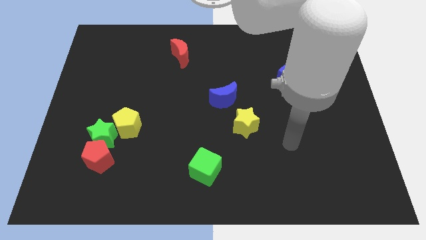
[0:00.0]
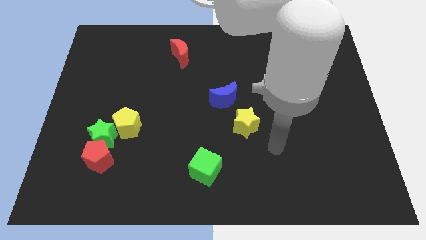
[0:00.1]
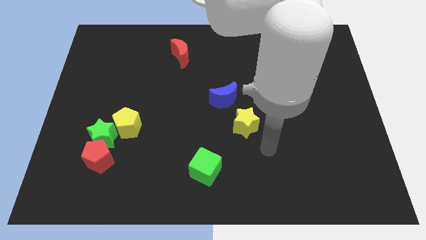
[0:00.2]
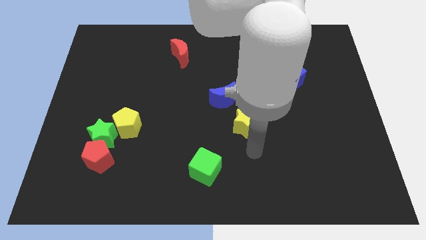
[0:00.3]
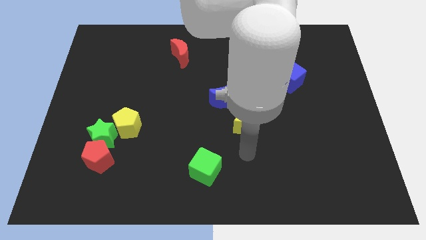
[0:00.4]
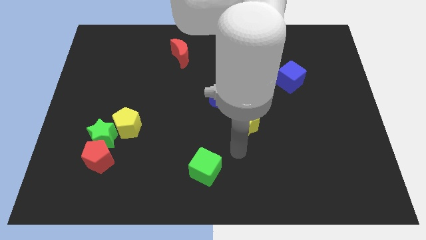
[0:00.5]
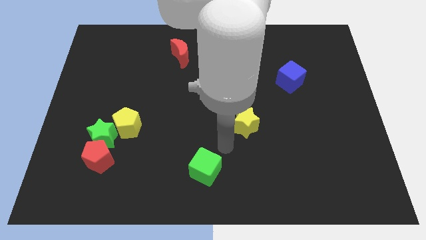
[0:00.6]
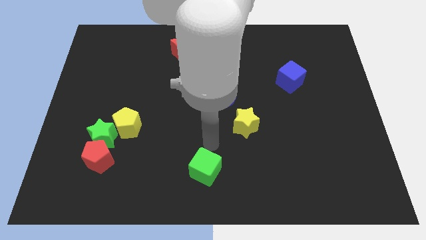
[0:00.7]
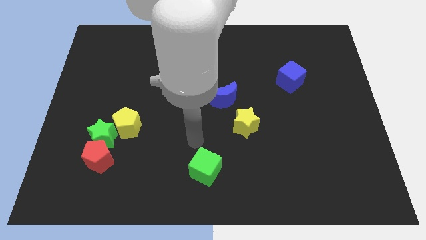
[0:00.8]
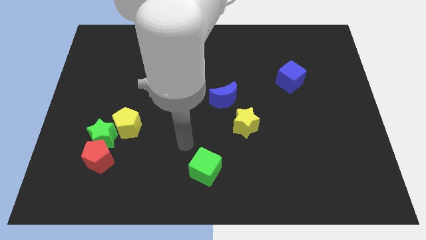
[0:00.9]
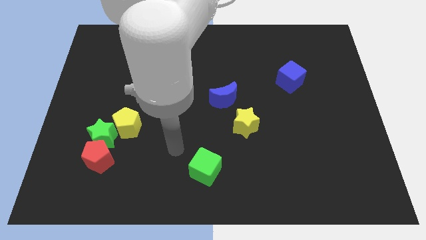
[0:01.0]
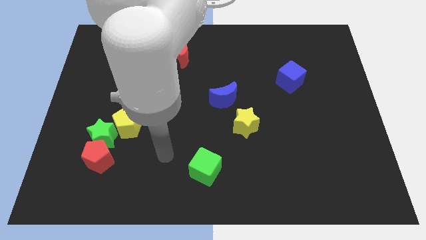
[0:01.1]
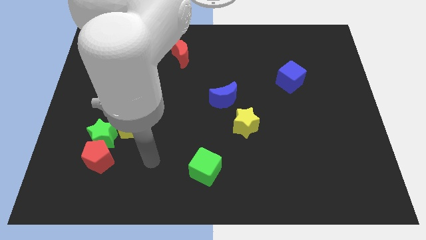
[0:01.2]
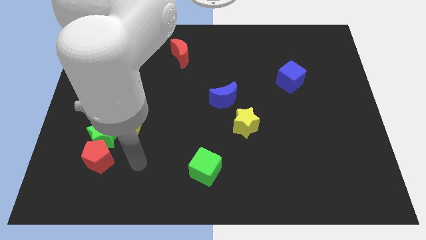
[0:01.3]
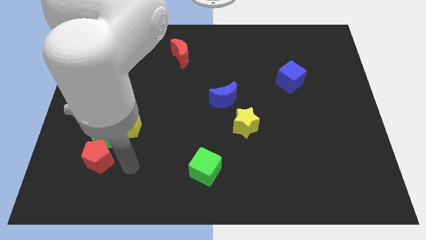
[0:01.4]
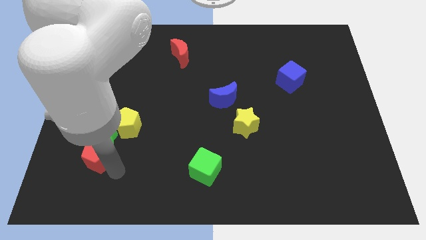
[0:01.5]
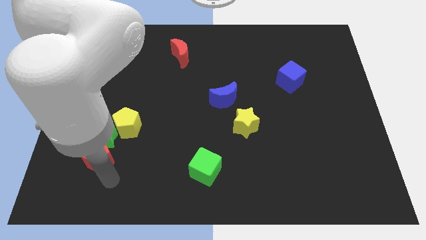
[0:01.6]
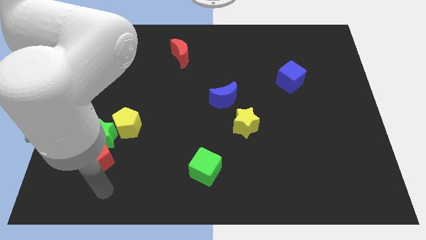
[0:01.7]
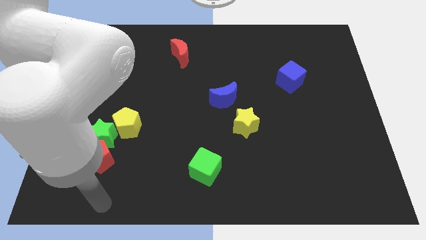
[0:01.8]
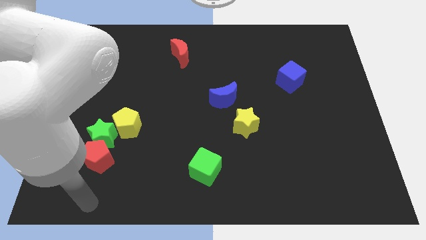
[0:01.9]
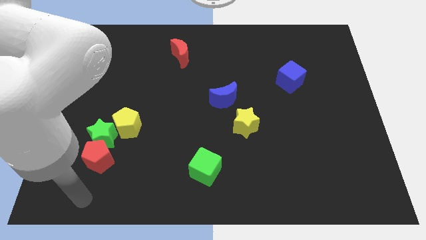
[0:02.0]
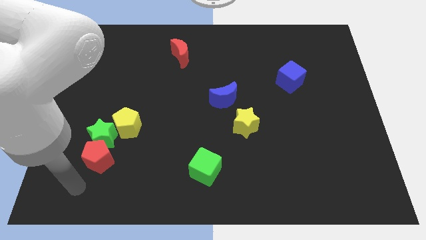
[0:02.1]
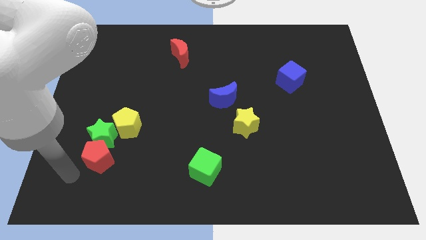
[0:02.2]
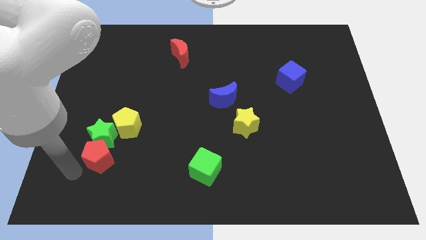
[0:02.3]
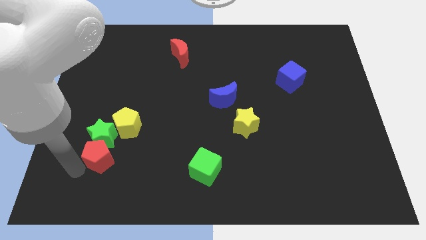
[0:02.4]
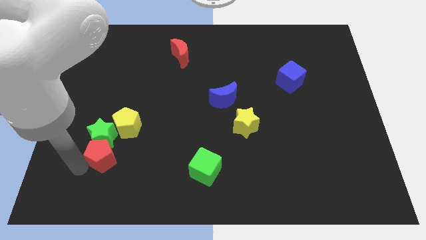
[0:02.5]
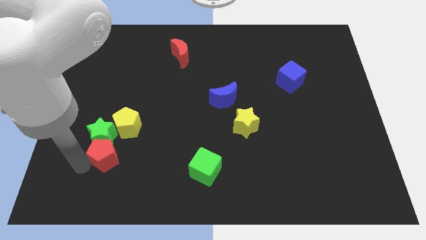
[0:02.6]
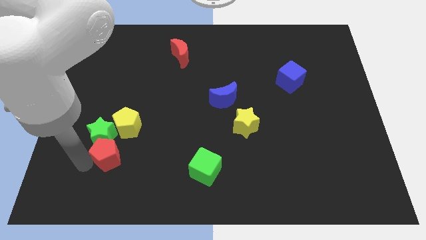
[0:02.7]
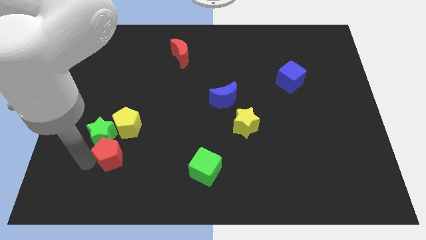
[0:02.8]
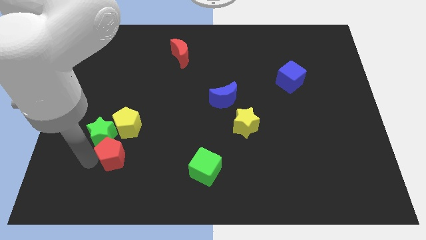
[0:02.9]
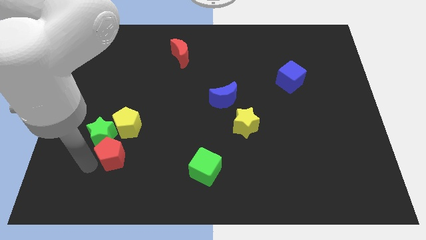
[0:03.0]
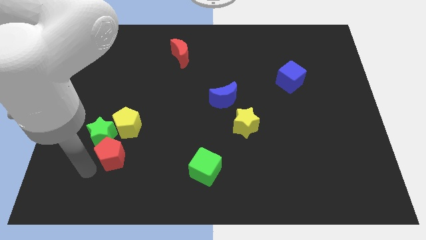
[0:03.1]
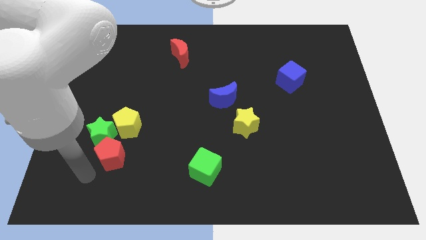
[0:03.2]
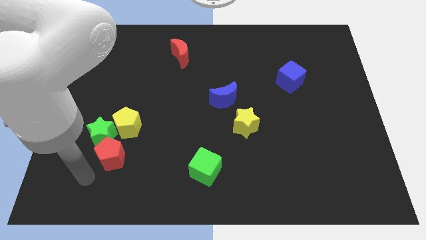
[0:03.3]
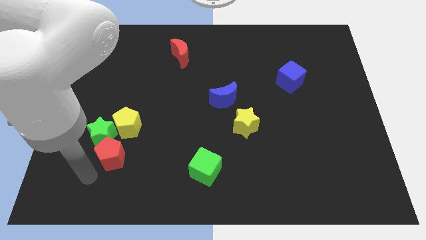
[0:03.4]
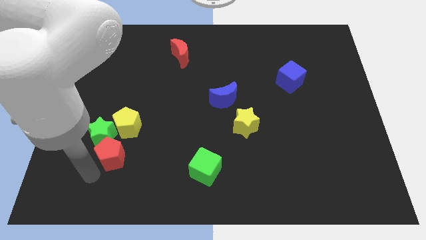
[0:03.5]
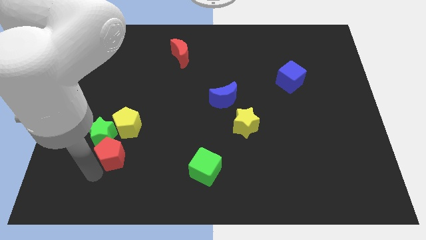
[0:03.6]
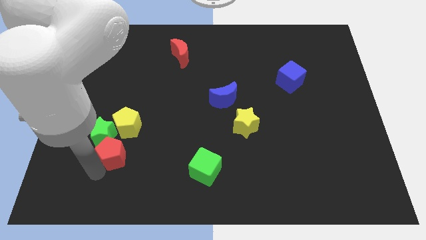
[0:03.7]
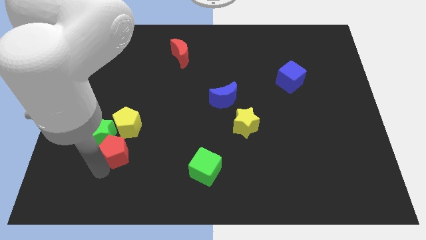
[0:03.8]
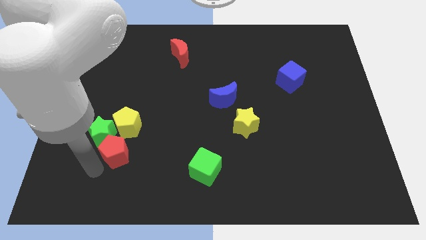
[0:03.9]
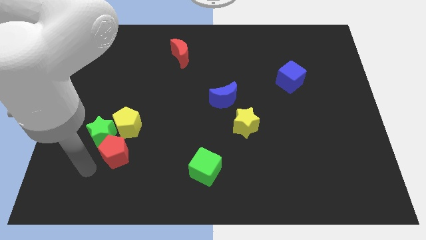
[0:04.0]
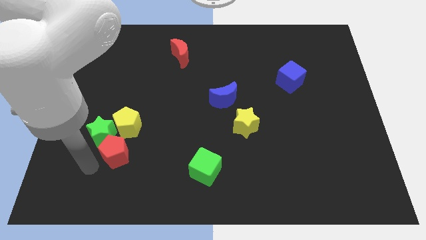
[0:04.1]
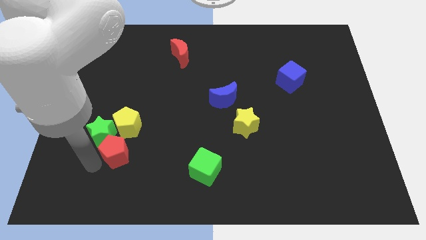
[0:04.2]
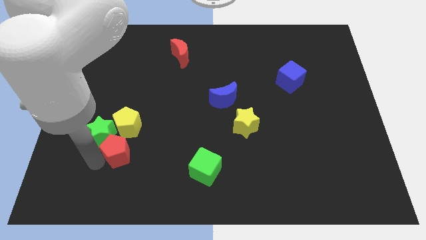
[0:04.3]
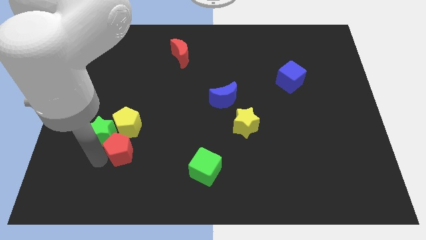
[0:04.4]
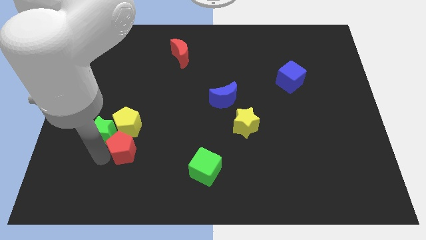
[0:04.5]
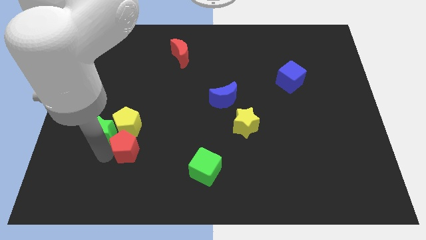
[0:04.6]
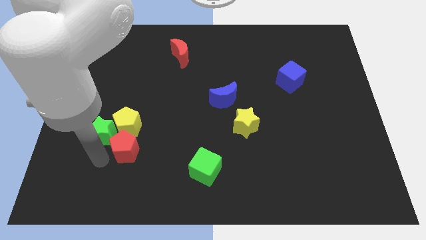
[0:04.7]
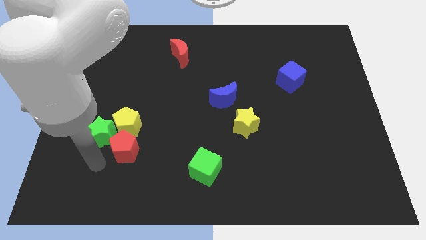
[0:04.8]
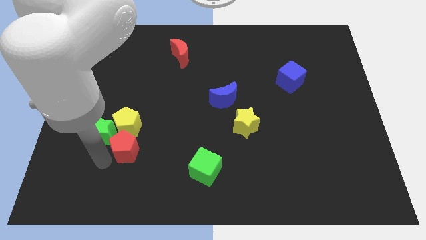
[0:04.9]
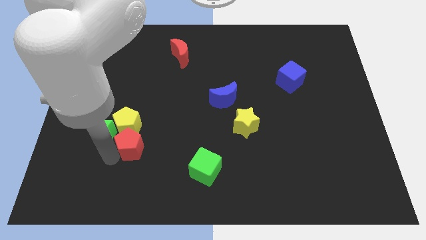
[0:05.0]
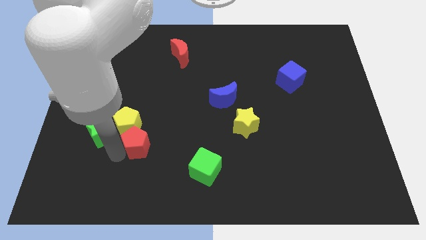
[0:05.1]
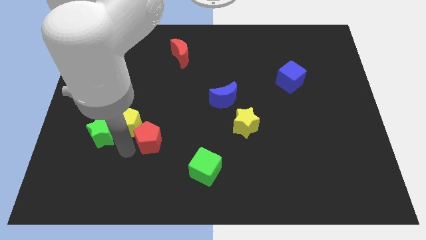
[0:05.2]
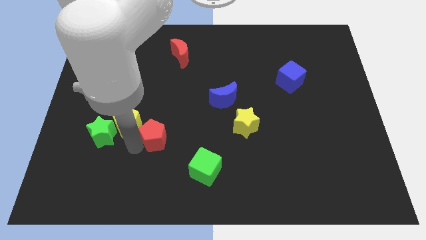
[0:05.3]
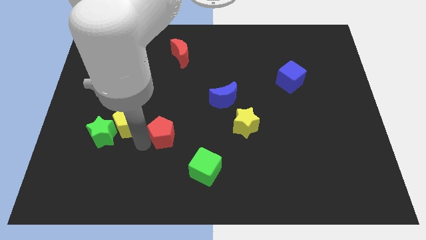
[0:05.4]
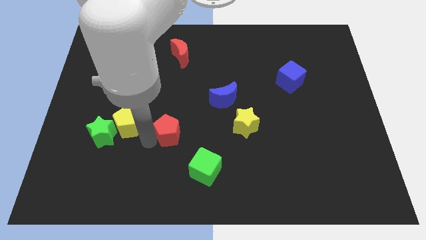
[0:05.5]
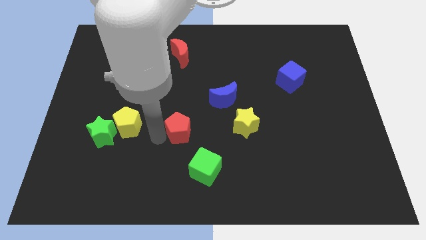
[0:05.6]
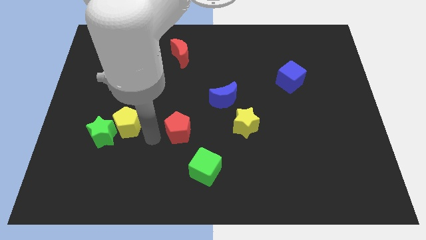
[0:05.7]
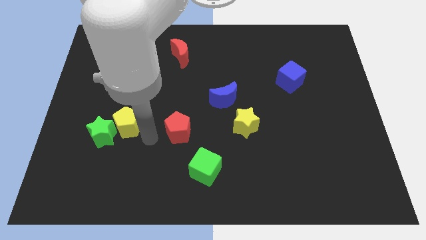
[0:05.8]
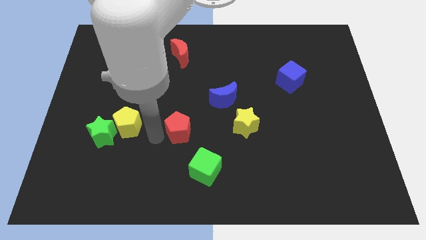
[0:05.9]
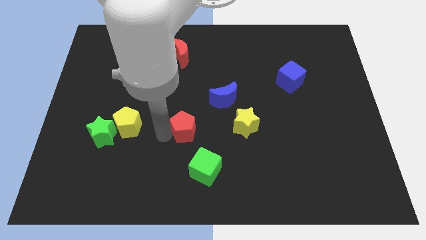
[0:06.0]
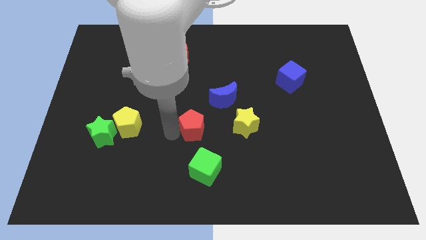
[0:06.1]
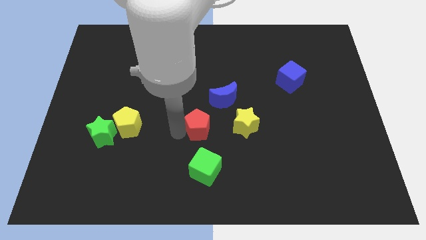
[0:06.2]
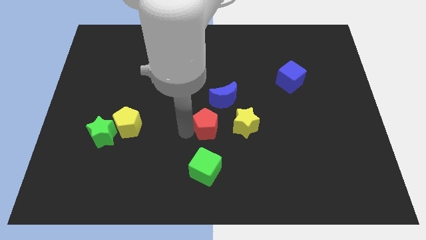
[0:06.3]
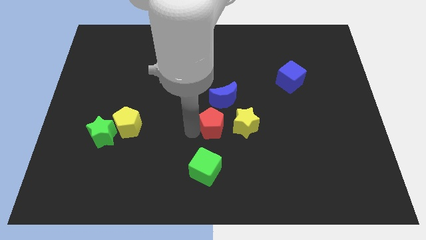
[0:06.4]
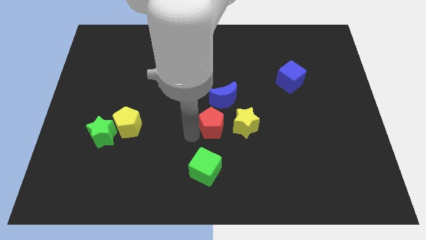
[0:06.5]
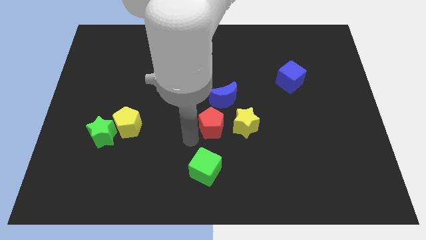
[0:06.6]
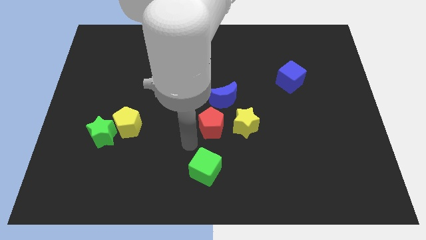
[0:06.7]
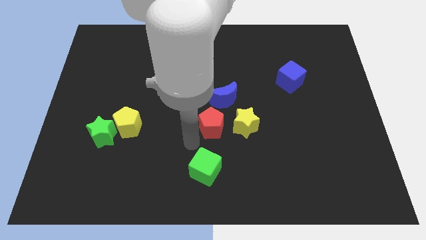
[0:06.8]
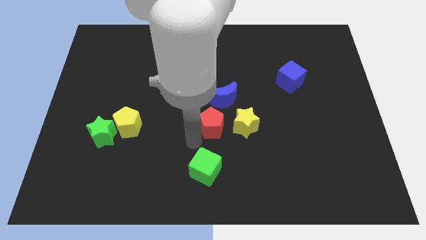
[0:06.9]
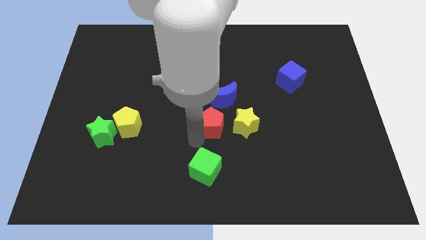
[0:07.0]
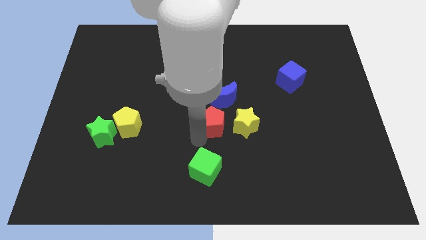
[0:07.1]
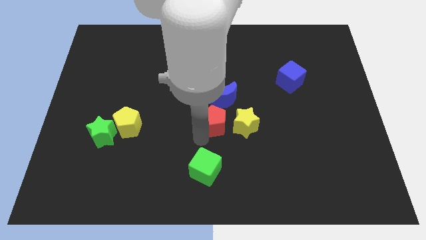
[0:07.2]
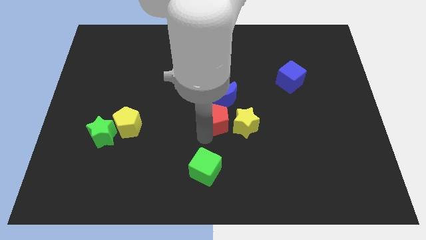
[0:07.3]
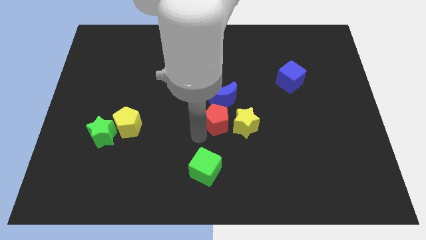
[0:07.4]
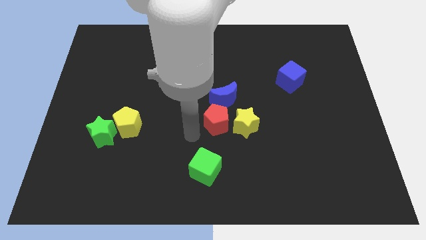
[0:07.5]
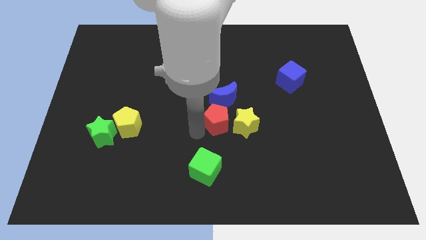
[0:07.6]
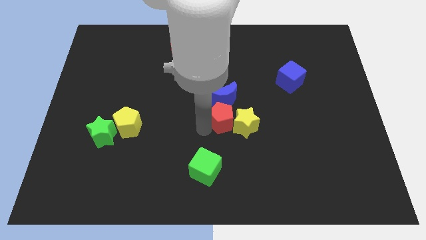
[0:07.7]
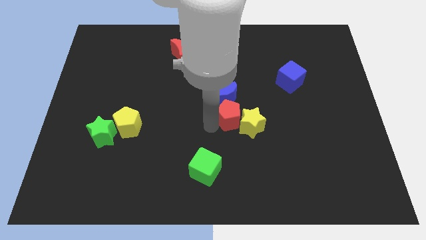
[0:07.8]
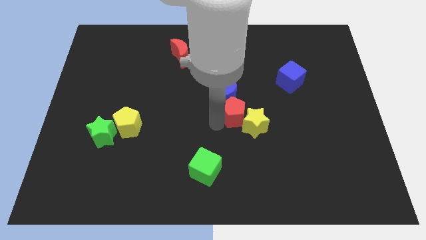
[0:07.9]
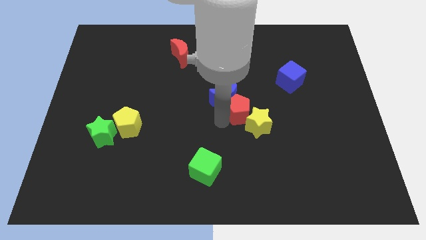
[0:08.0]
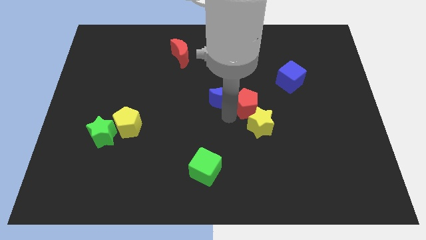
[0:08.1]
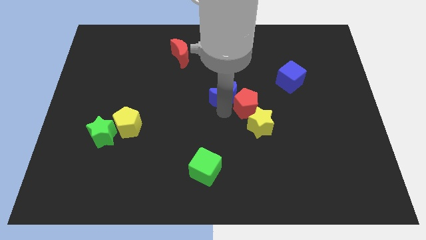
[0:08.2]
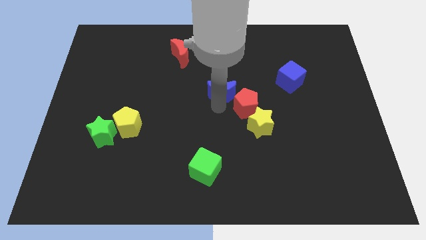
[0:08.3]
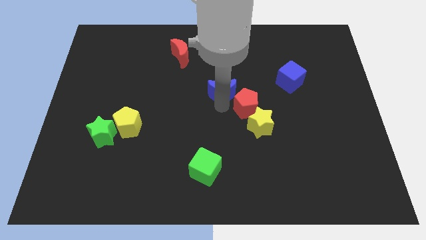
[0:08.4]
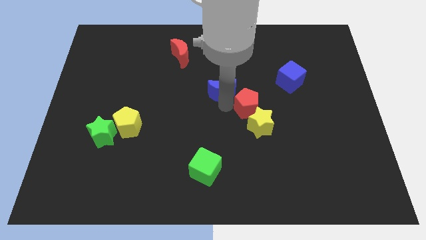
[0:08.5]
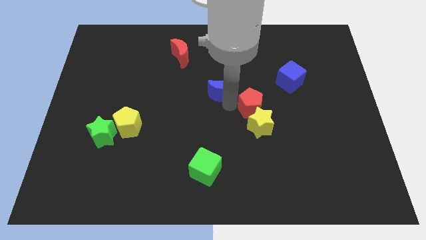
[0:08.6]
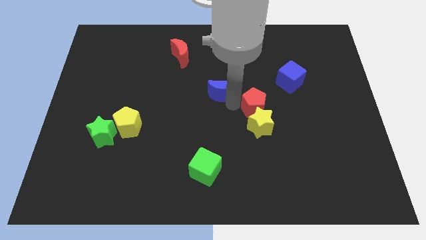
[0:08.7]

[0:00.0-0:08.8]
put the red pentagon to the top right of the yellow star
